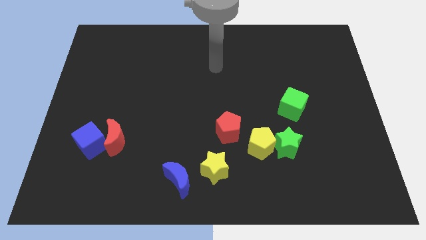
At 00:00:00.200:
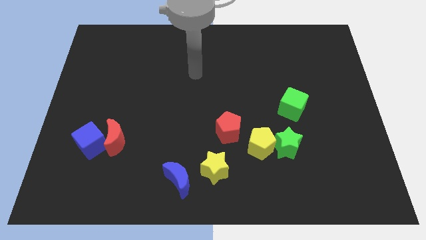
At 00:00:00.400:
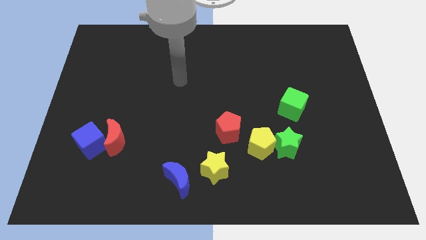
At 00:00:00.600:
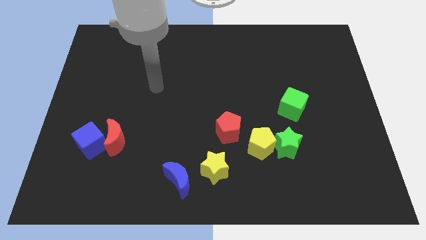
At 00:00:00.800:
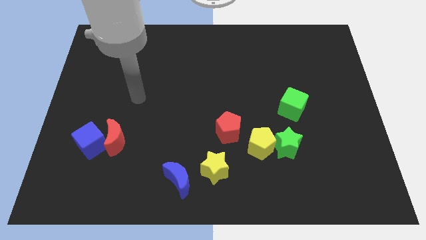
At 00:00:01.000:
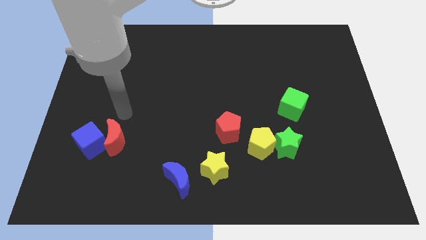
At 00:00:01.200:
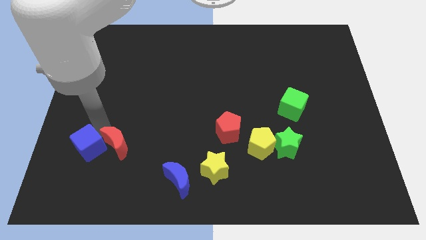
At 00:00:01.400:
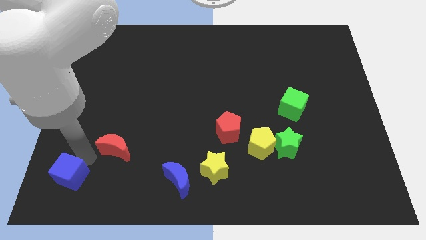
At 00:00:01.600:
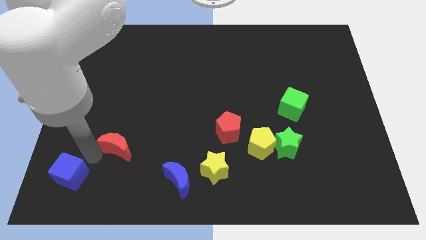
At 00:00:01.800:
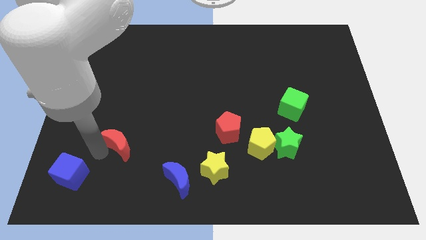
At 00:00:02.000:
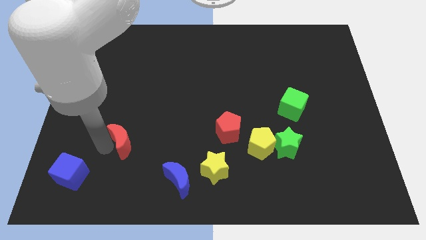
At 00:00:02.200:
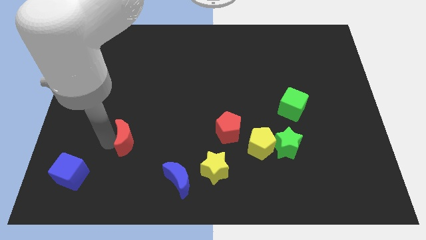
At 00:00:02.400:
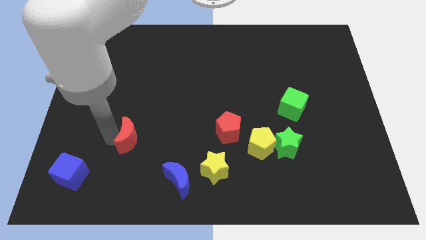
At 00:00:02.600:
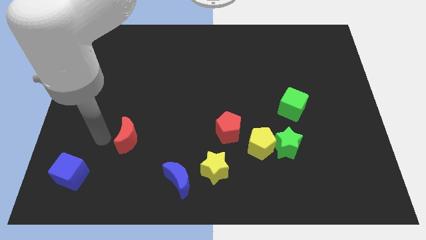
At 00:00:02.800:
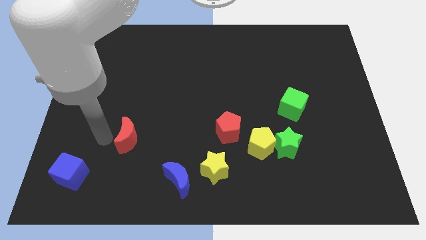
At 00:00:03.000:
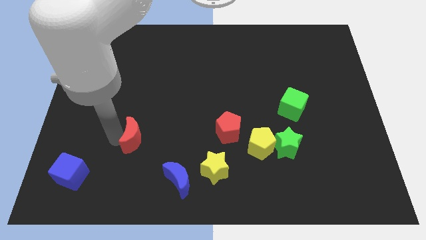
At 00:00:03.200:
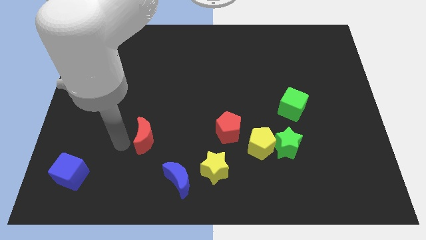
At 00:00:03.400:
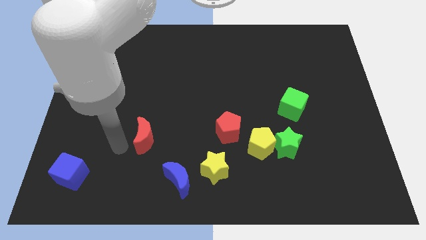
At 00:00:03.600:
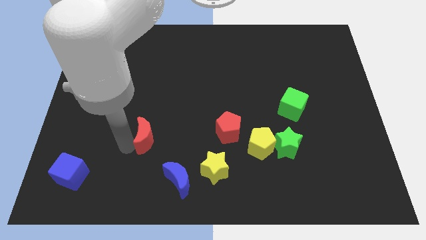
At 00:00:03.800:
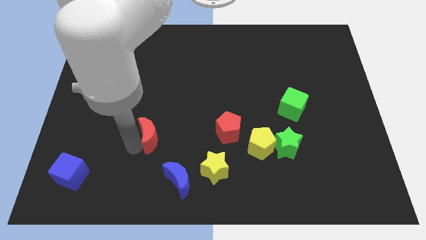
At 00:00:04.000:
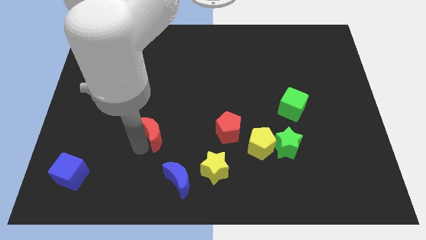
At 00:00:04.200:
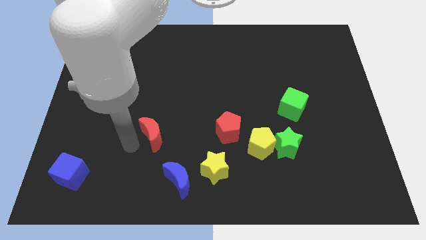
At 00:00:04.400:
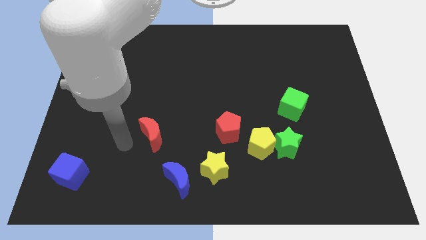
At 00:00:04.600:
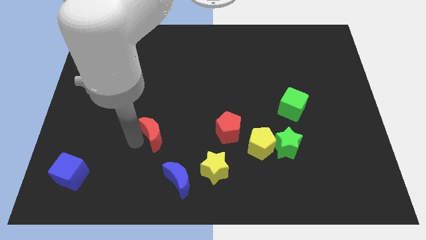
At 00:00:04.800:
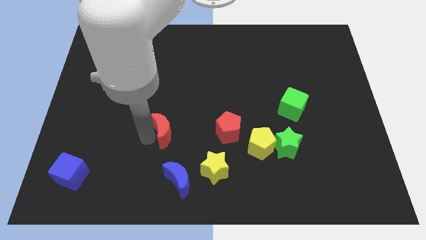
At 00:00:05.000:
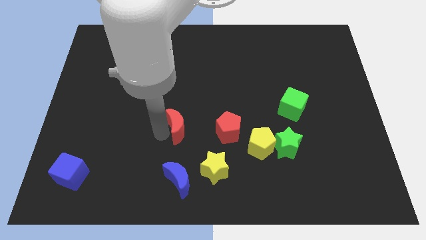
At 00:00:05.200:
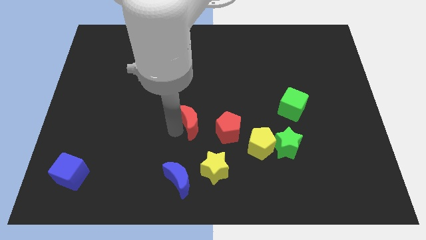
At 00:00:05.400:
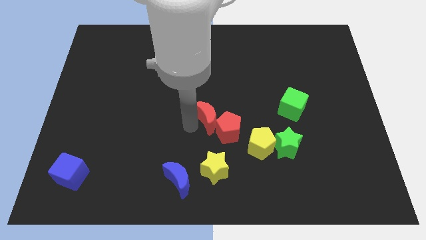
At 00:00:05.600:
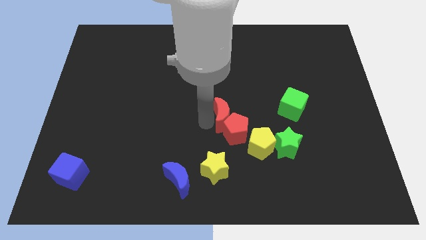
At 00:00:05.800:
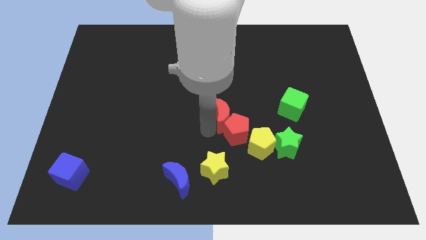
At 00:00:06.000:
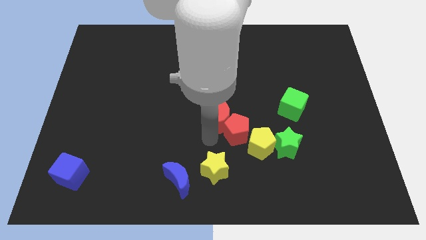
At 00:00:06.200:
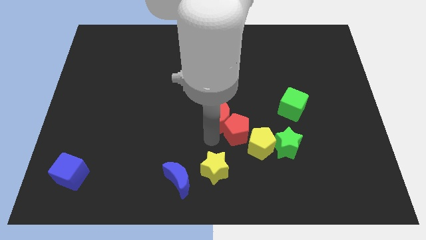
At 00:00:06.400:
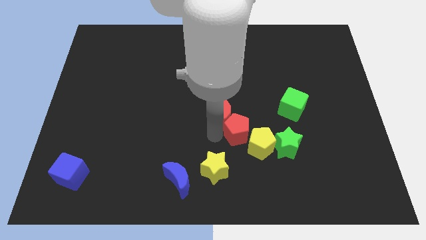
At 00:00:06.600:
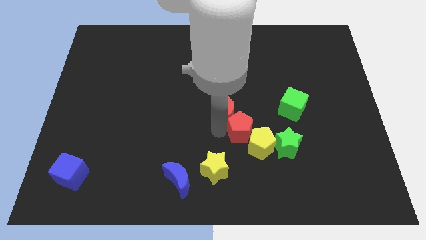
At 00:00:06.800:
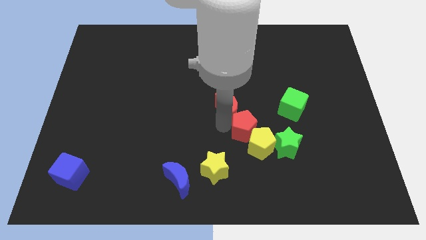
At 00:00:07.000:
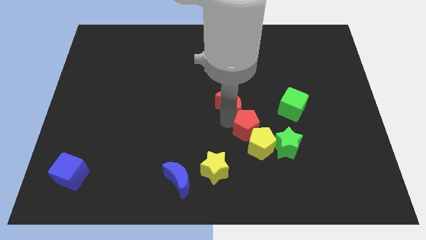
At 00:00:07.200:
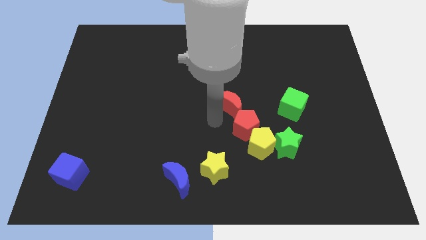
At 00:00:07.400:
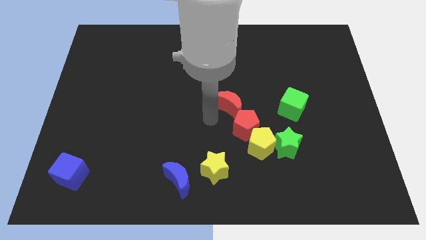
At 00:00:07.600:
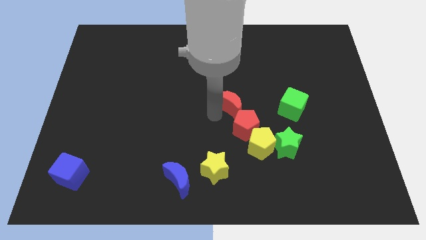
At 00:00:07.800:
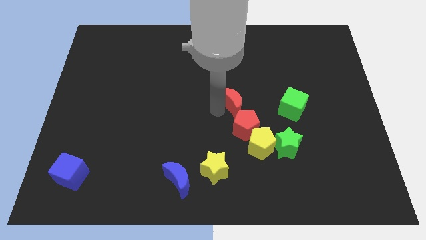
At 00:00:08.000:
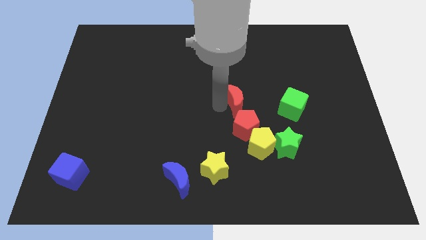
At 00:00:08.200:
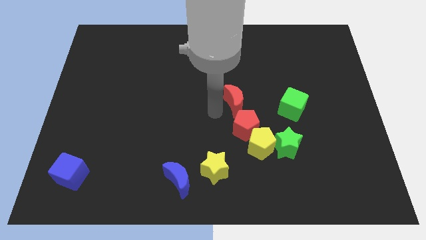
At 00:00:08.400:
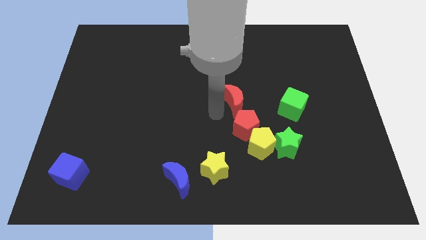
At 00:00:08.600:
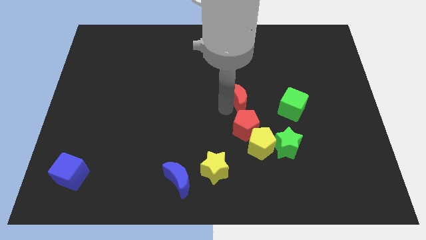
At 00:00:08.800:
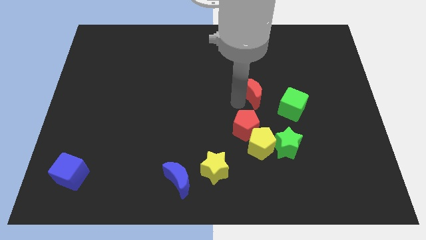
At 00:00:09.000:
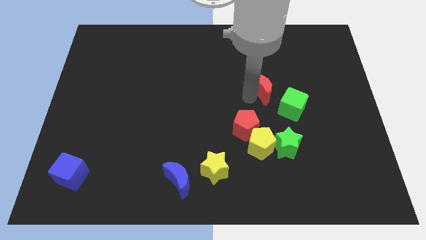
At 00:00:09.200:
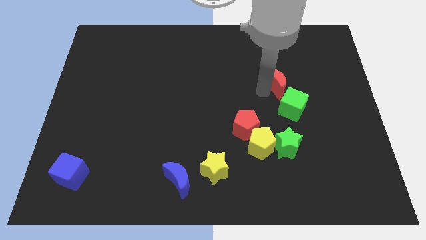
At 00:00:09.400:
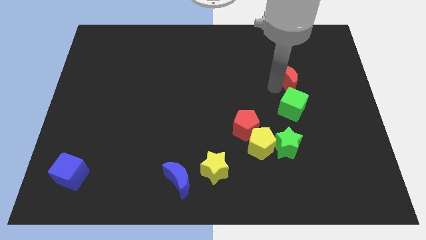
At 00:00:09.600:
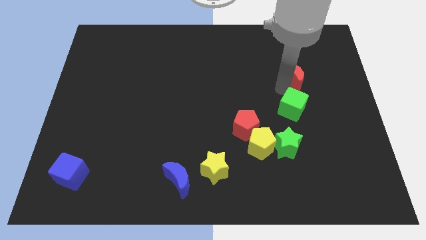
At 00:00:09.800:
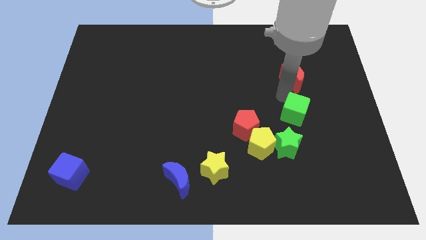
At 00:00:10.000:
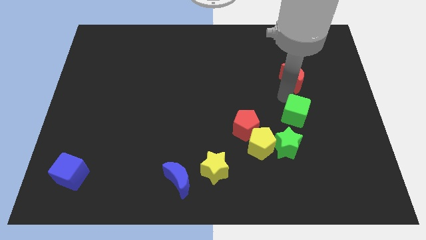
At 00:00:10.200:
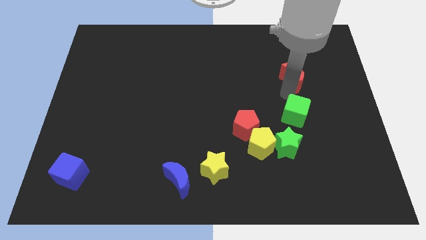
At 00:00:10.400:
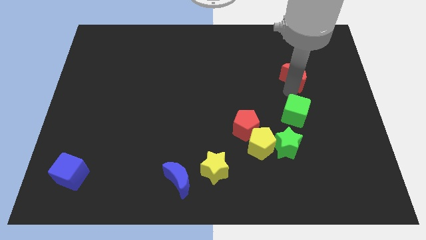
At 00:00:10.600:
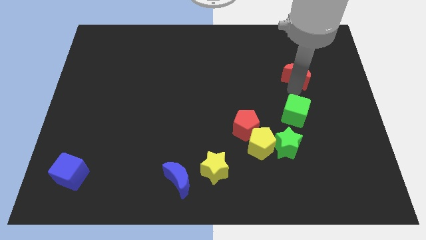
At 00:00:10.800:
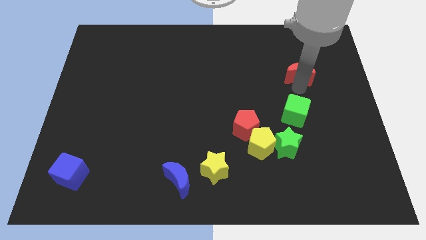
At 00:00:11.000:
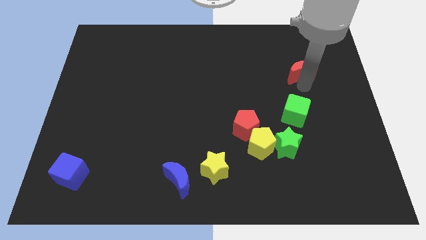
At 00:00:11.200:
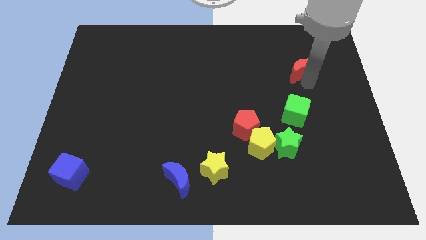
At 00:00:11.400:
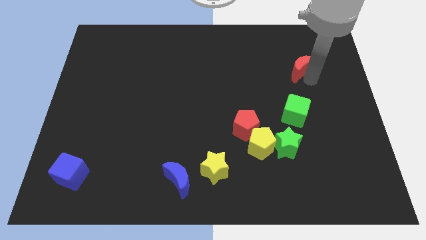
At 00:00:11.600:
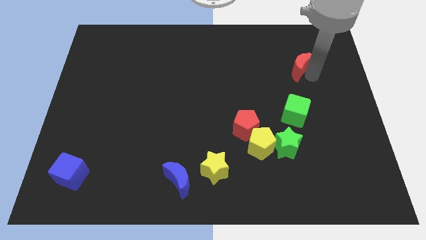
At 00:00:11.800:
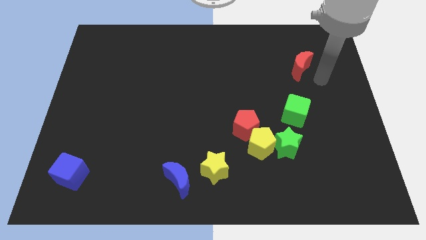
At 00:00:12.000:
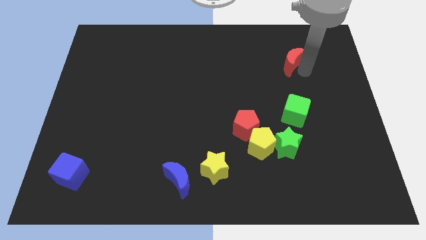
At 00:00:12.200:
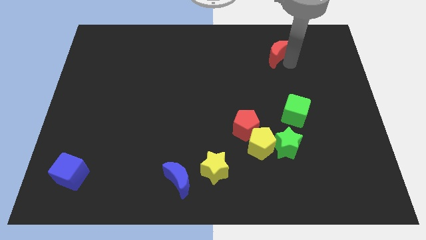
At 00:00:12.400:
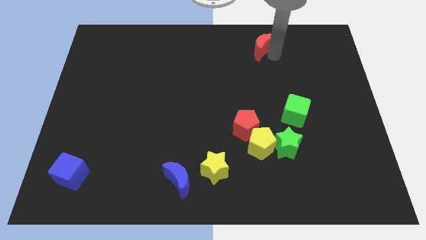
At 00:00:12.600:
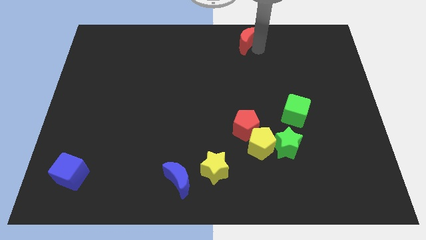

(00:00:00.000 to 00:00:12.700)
move the red moon to the towards your base
